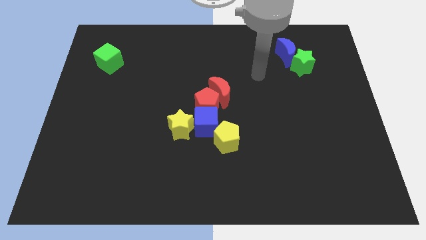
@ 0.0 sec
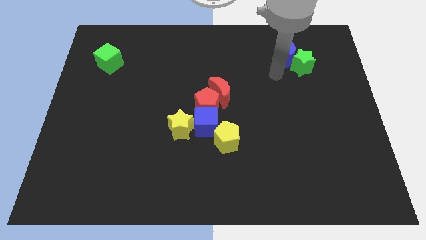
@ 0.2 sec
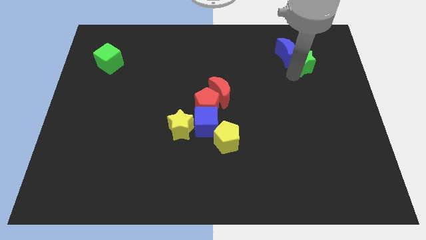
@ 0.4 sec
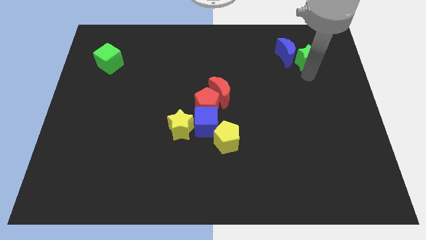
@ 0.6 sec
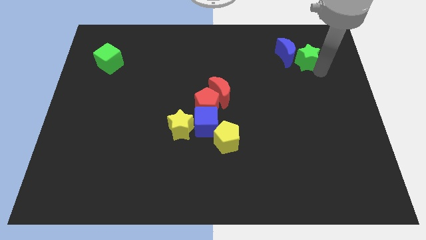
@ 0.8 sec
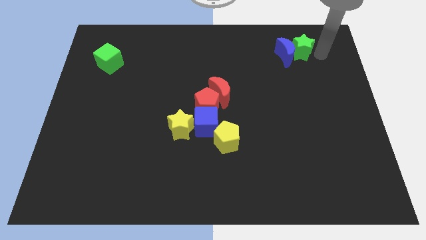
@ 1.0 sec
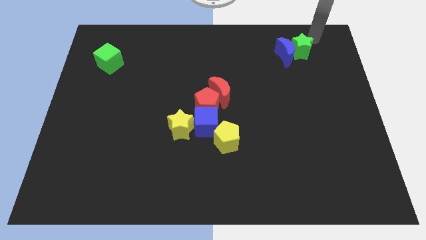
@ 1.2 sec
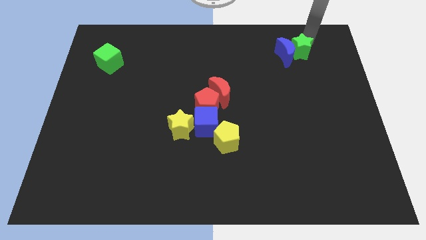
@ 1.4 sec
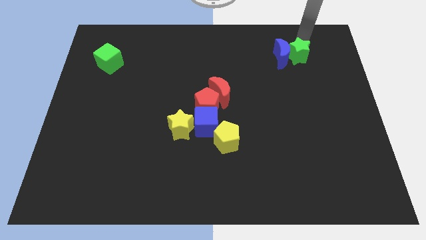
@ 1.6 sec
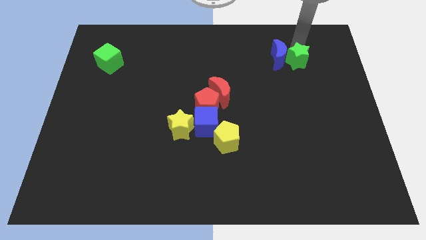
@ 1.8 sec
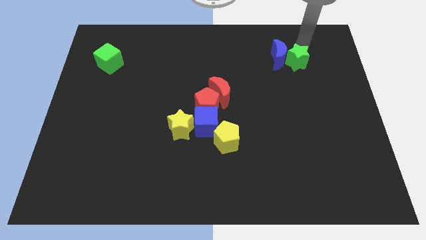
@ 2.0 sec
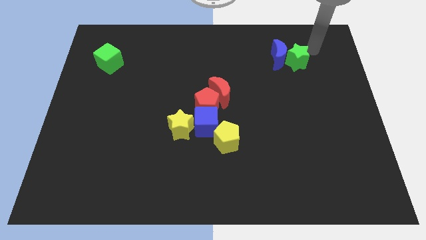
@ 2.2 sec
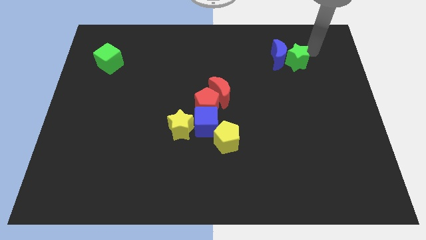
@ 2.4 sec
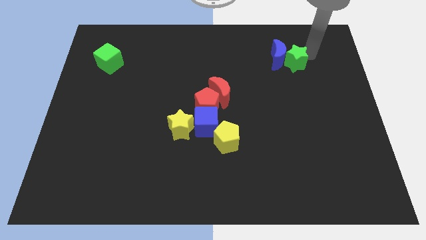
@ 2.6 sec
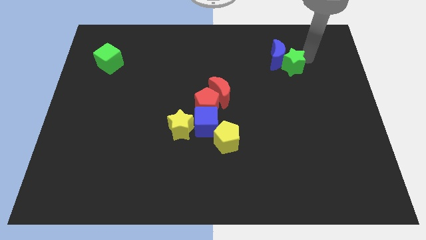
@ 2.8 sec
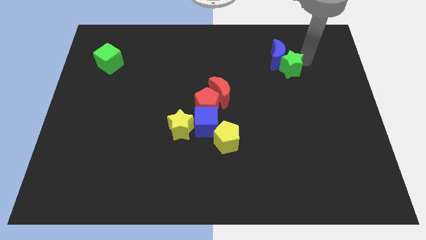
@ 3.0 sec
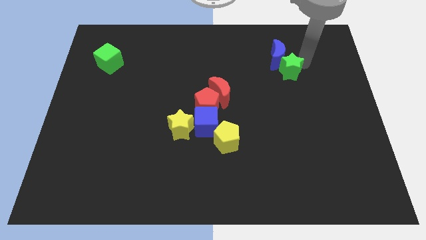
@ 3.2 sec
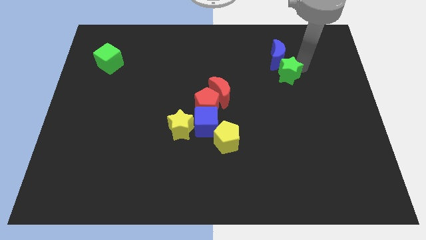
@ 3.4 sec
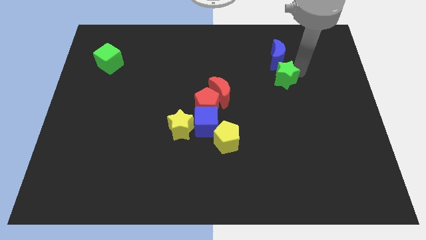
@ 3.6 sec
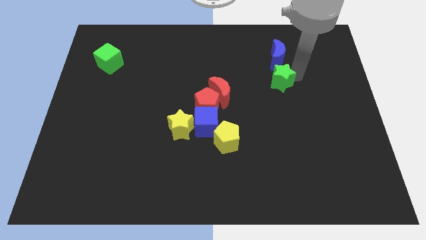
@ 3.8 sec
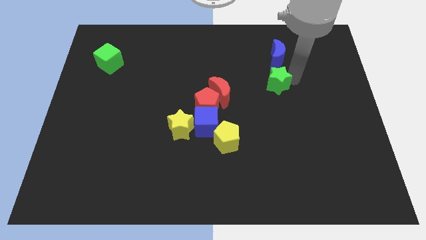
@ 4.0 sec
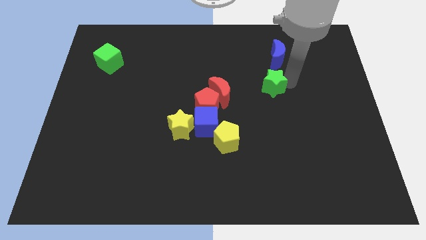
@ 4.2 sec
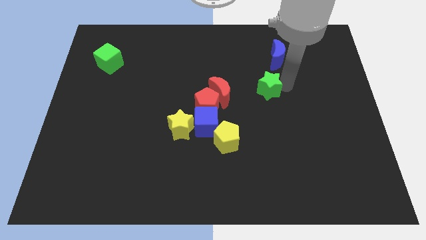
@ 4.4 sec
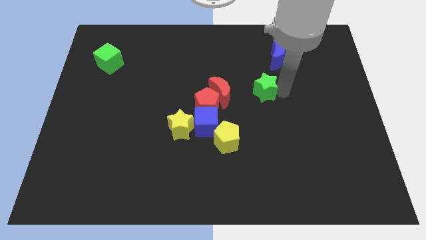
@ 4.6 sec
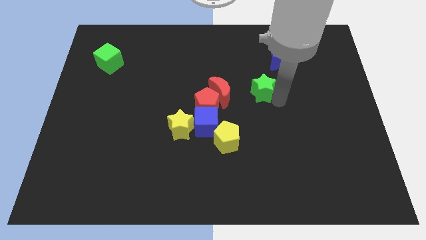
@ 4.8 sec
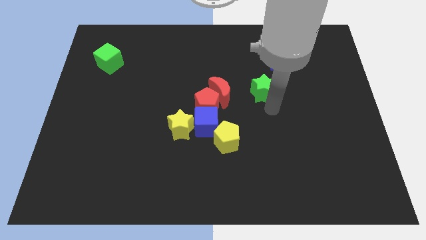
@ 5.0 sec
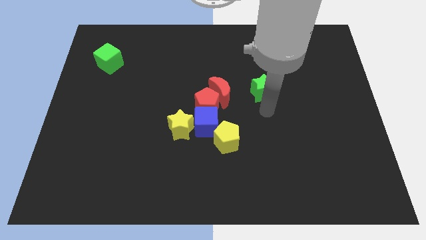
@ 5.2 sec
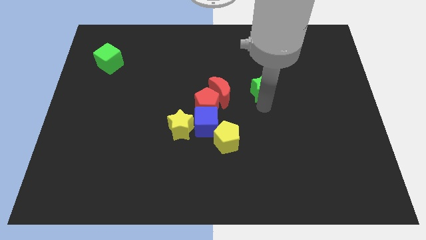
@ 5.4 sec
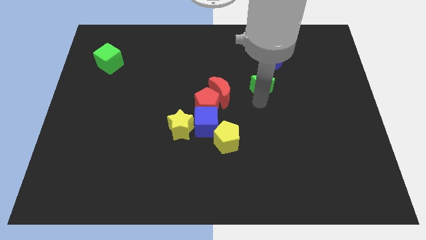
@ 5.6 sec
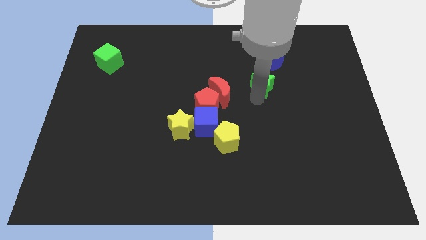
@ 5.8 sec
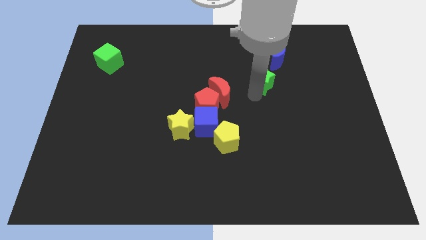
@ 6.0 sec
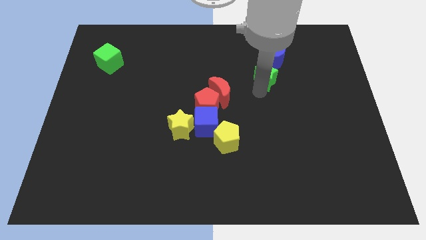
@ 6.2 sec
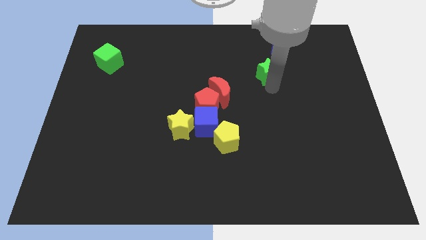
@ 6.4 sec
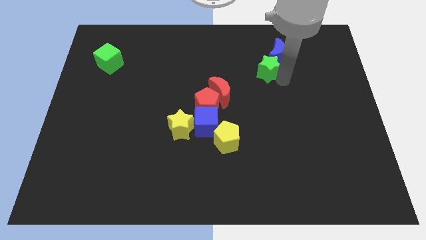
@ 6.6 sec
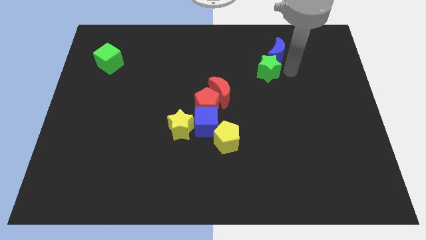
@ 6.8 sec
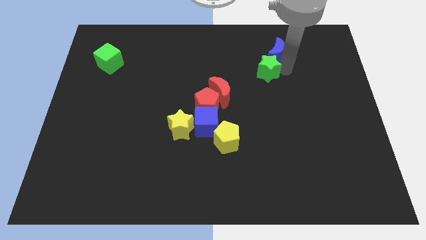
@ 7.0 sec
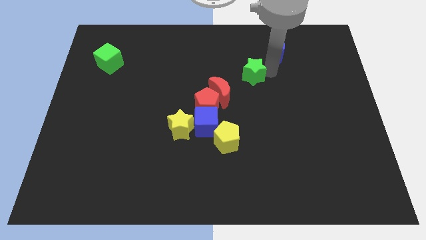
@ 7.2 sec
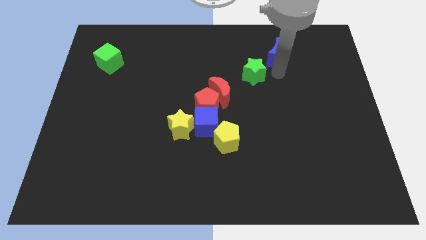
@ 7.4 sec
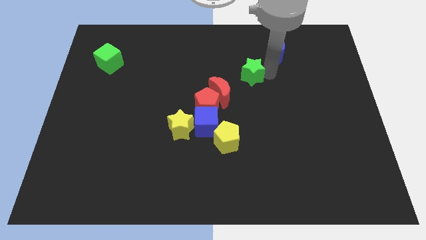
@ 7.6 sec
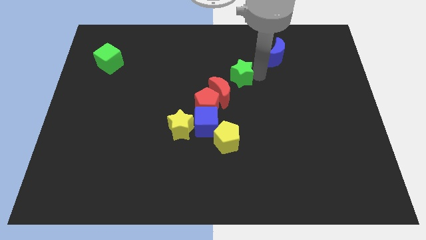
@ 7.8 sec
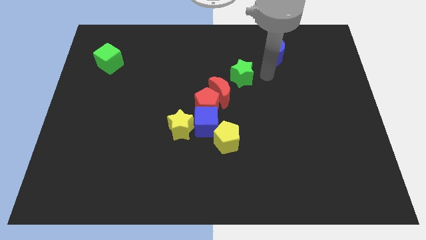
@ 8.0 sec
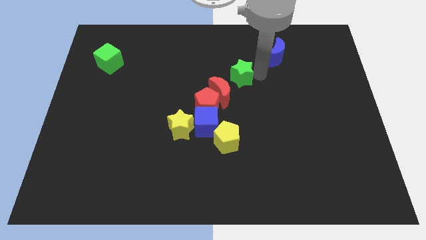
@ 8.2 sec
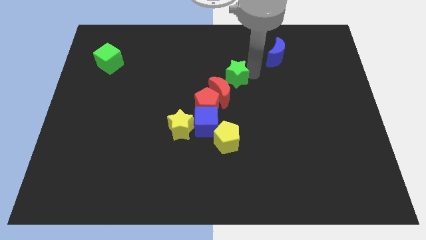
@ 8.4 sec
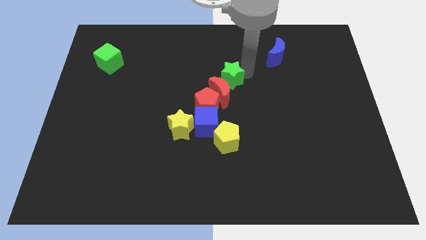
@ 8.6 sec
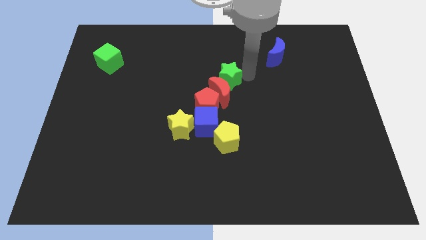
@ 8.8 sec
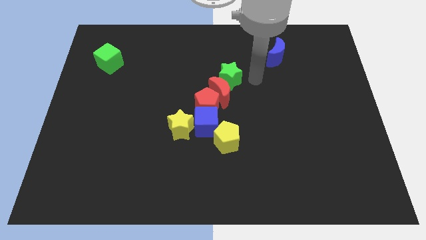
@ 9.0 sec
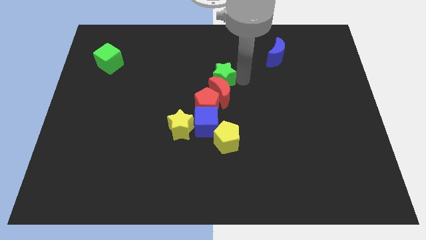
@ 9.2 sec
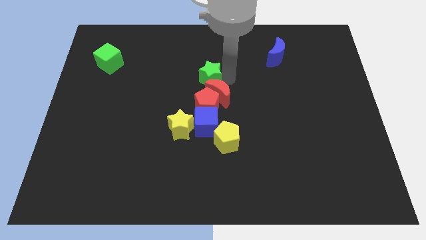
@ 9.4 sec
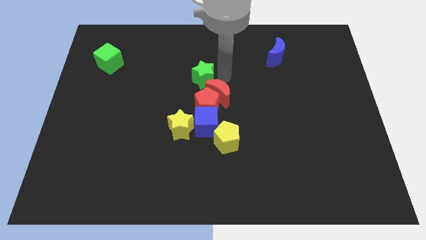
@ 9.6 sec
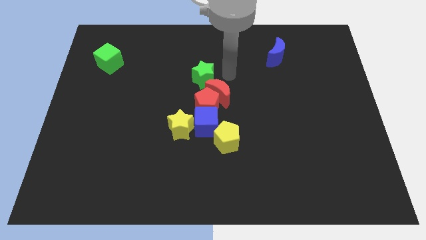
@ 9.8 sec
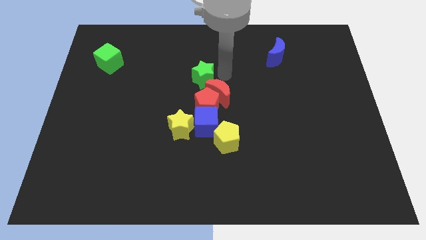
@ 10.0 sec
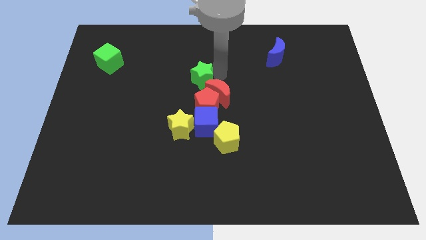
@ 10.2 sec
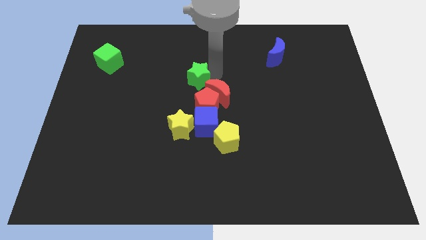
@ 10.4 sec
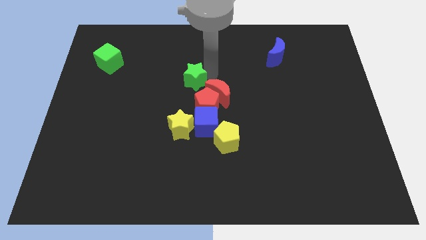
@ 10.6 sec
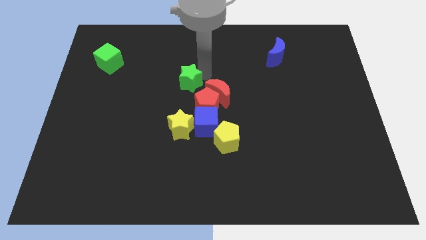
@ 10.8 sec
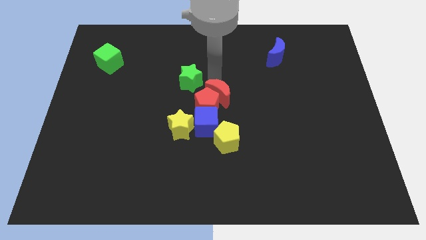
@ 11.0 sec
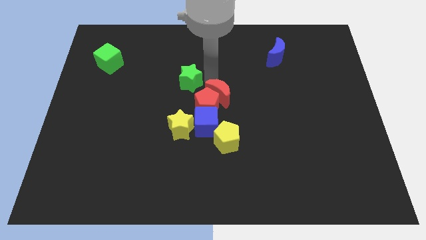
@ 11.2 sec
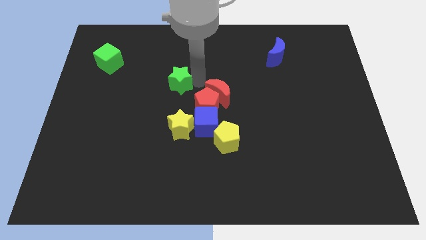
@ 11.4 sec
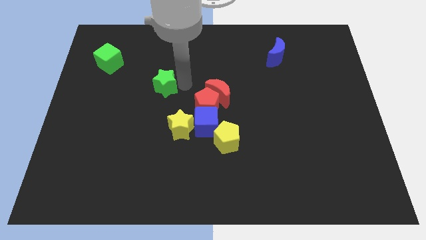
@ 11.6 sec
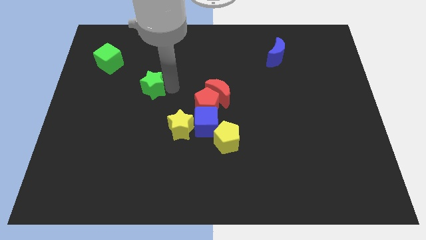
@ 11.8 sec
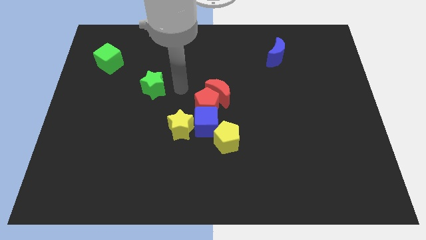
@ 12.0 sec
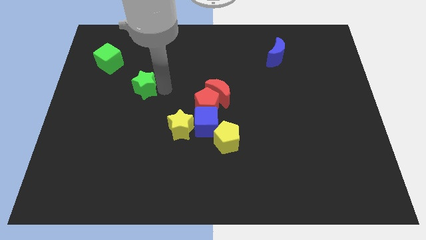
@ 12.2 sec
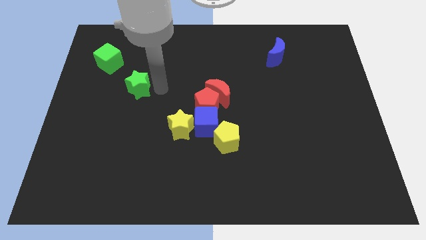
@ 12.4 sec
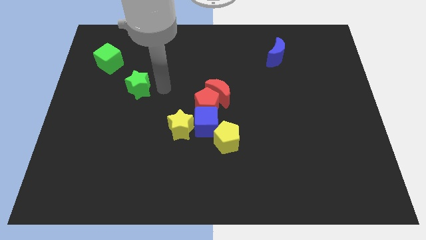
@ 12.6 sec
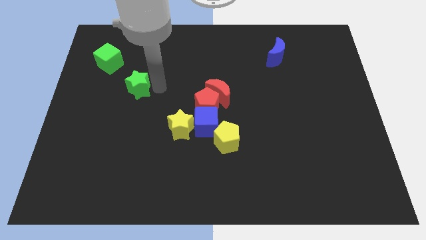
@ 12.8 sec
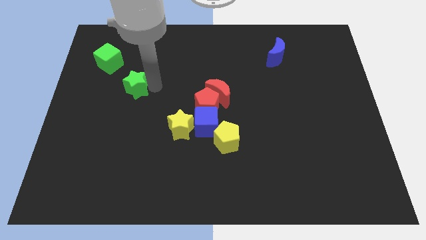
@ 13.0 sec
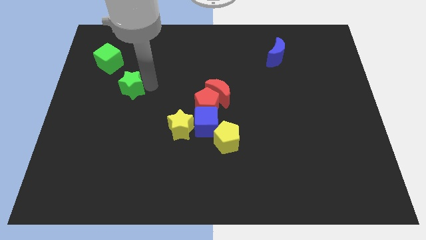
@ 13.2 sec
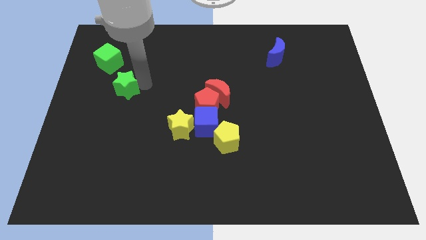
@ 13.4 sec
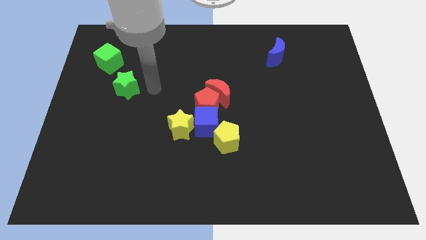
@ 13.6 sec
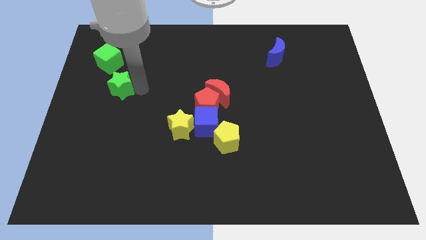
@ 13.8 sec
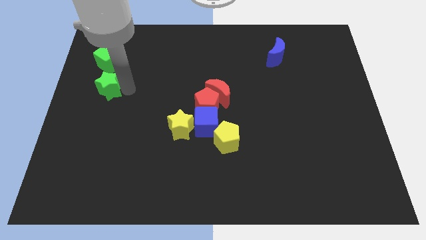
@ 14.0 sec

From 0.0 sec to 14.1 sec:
move the green star to the left side
